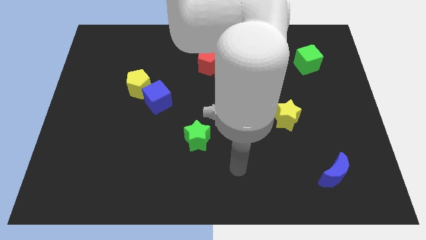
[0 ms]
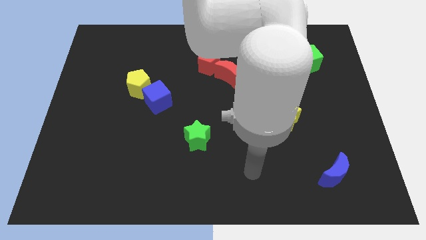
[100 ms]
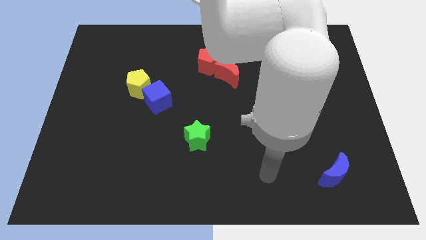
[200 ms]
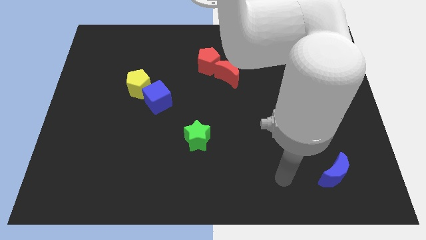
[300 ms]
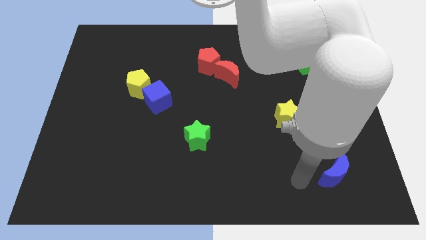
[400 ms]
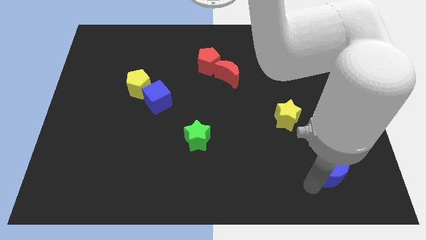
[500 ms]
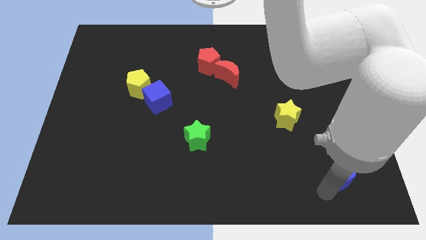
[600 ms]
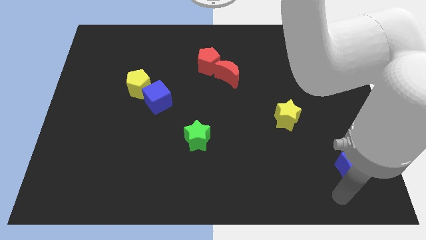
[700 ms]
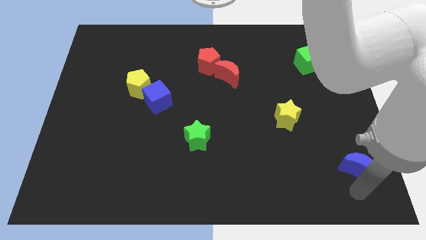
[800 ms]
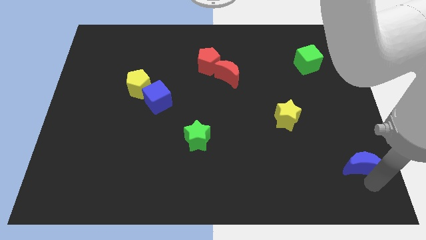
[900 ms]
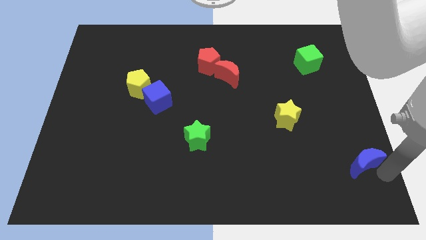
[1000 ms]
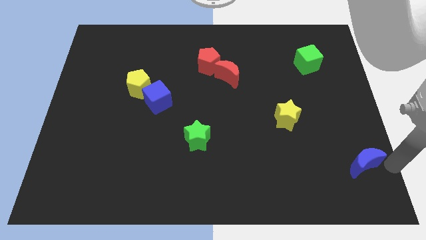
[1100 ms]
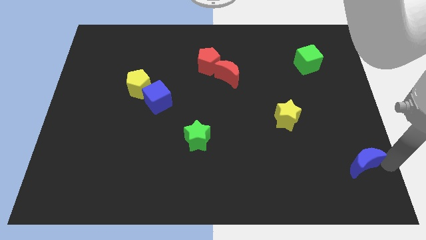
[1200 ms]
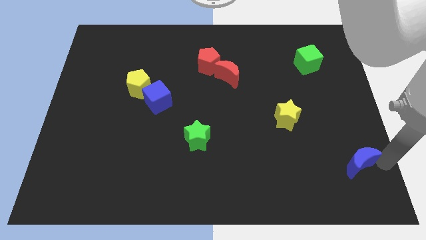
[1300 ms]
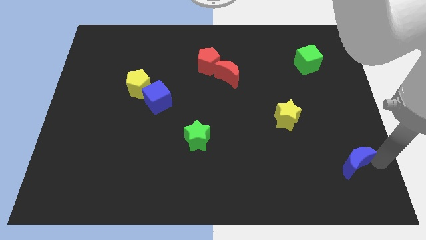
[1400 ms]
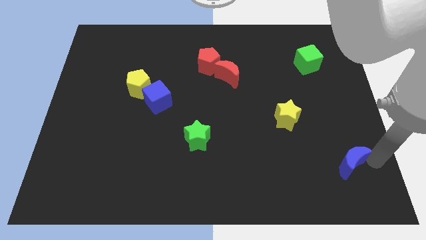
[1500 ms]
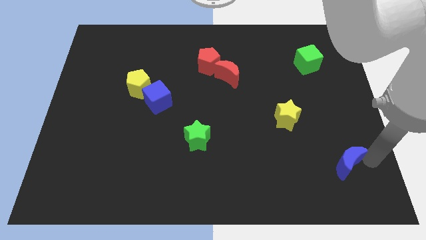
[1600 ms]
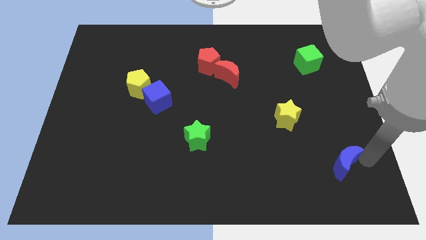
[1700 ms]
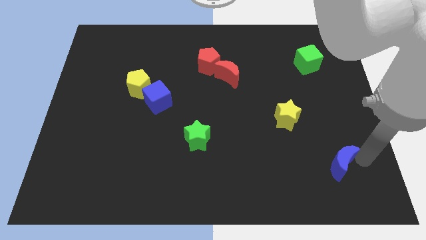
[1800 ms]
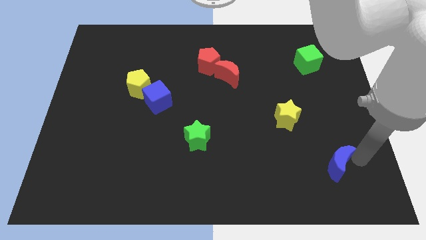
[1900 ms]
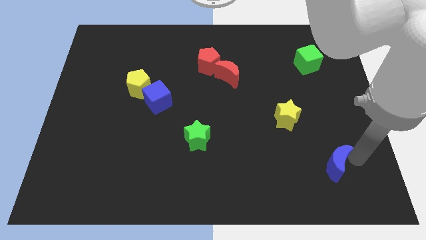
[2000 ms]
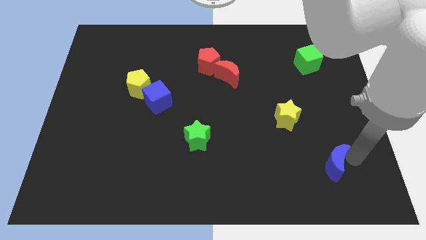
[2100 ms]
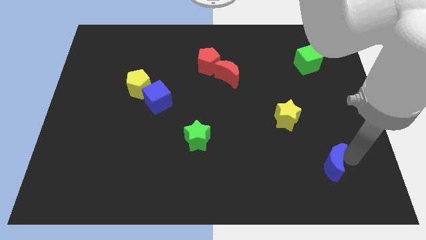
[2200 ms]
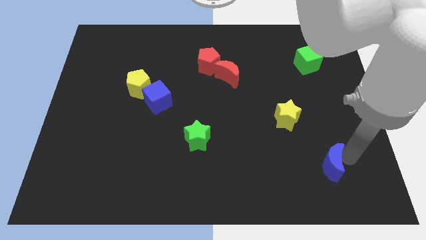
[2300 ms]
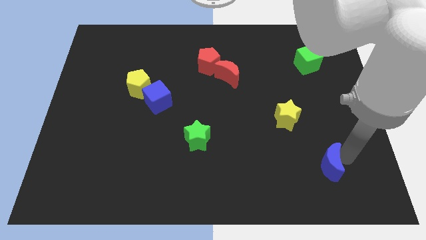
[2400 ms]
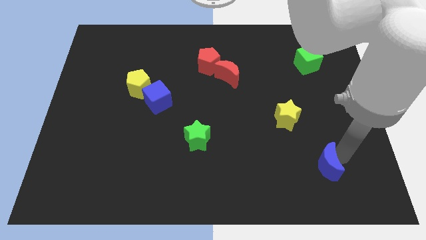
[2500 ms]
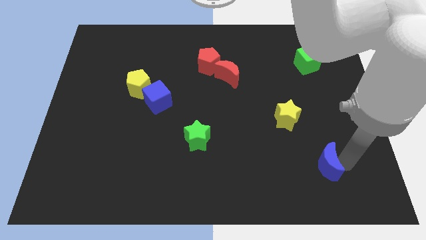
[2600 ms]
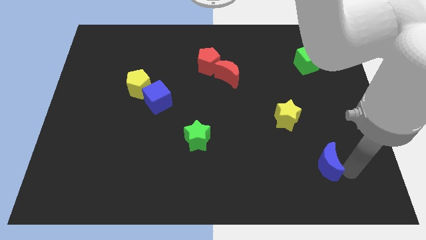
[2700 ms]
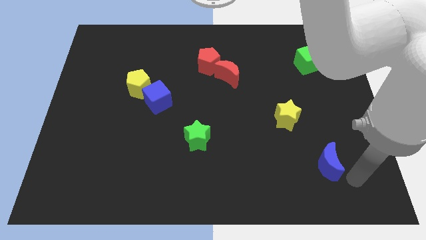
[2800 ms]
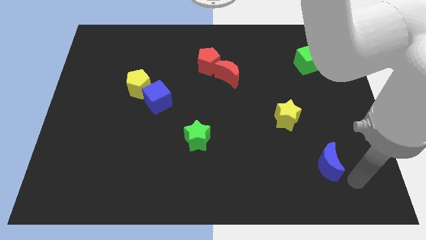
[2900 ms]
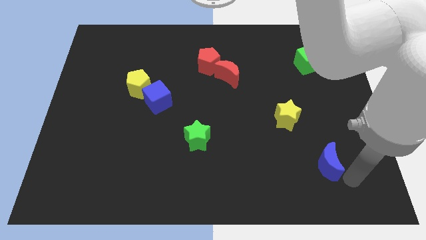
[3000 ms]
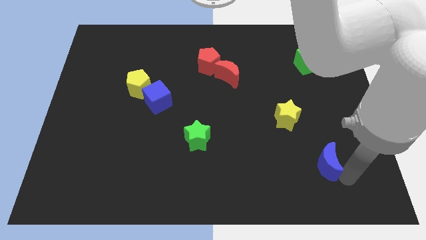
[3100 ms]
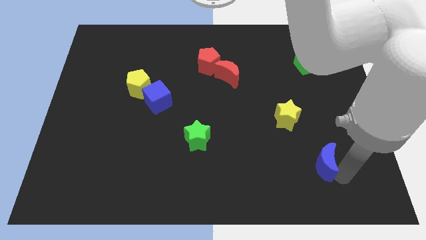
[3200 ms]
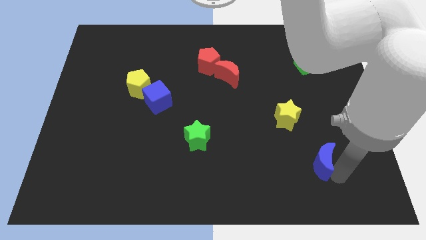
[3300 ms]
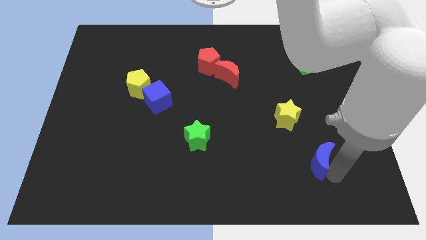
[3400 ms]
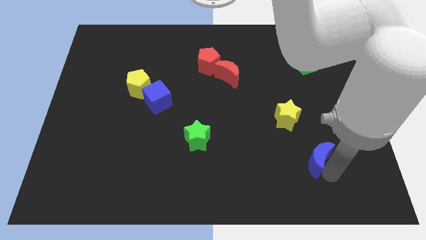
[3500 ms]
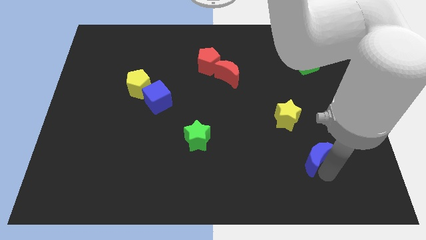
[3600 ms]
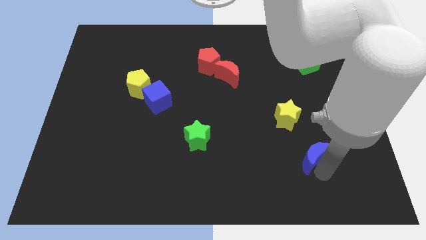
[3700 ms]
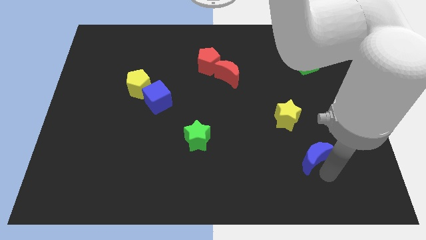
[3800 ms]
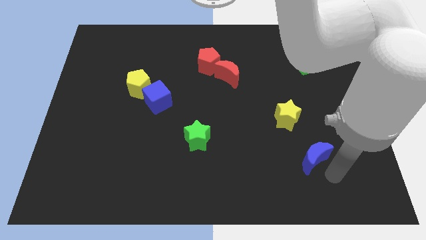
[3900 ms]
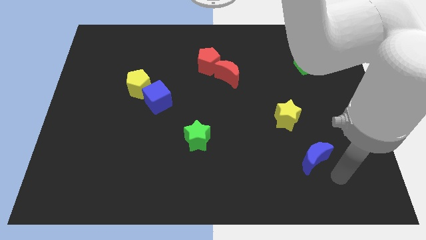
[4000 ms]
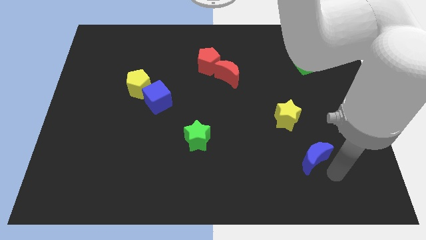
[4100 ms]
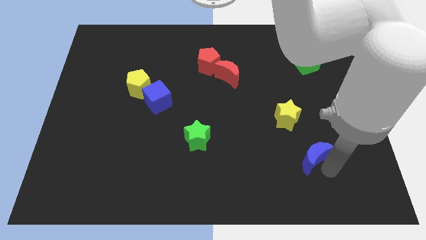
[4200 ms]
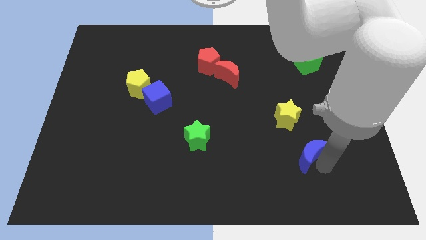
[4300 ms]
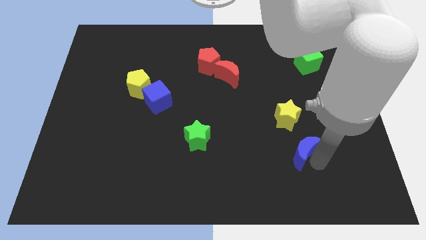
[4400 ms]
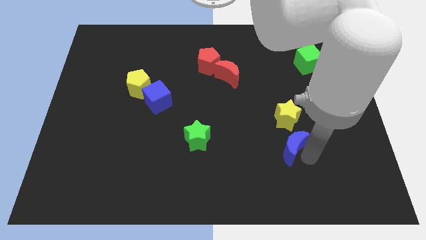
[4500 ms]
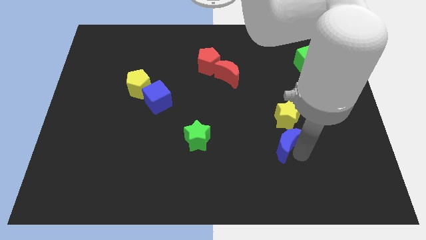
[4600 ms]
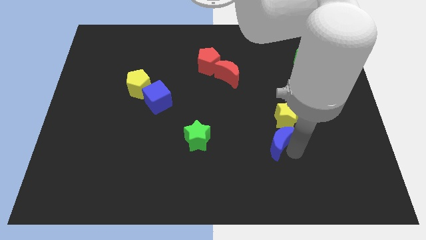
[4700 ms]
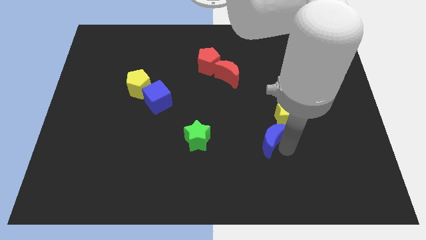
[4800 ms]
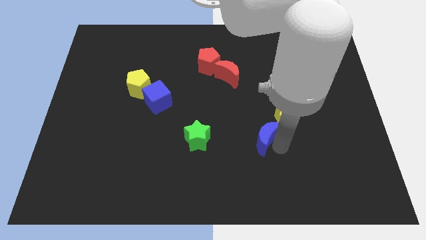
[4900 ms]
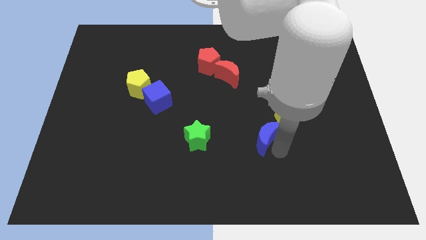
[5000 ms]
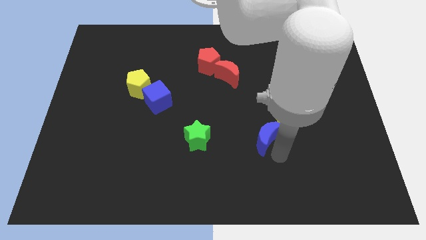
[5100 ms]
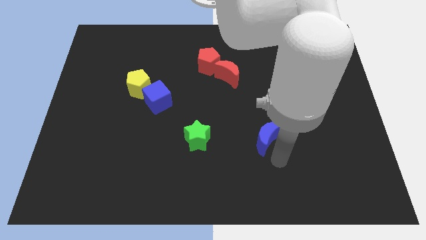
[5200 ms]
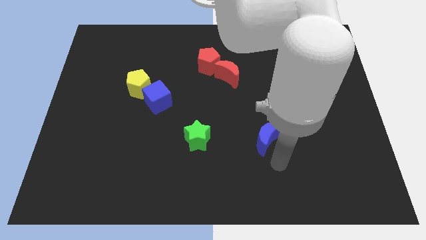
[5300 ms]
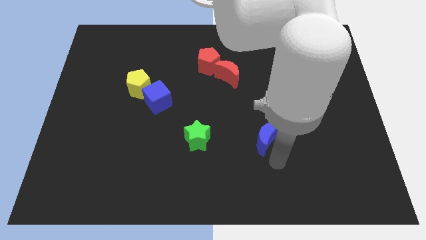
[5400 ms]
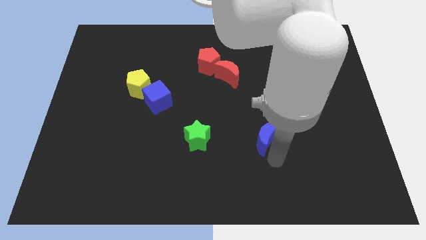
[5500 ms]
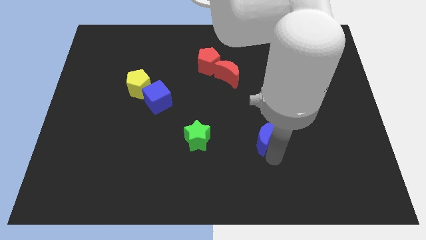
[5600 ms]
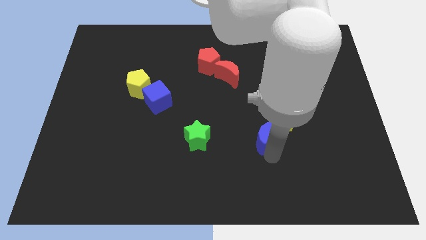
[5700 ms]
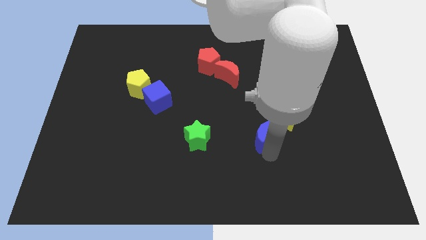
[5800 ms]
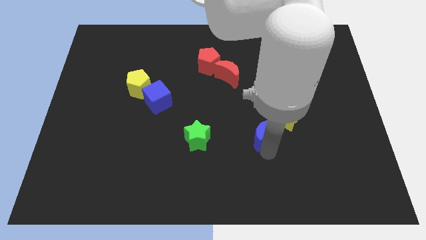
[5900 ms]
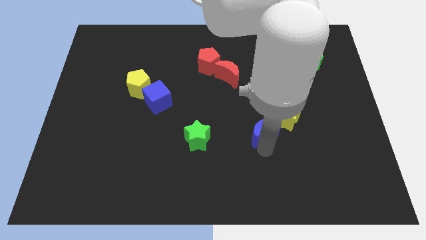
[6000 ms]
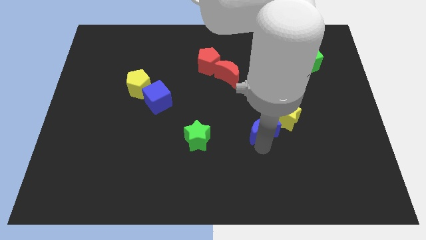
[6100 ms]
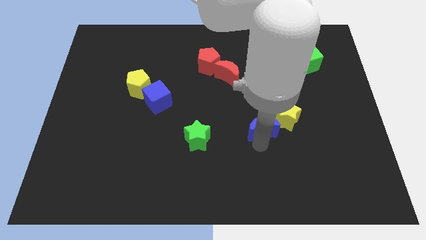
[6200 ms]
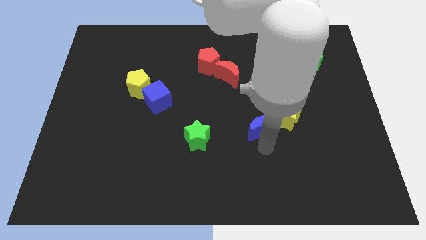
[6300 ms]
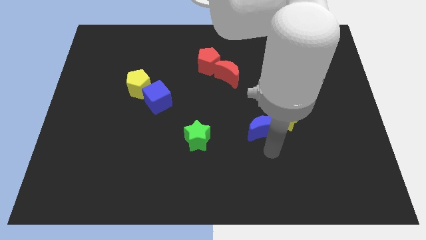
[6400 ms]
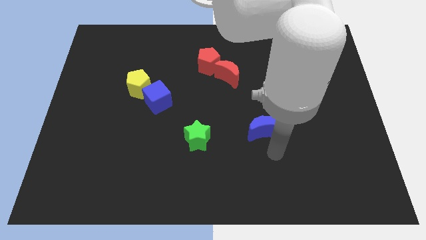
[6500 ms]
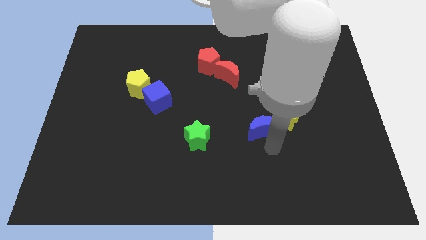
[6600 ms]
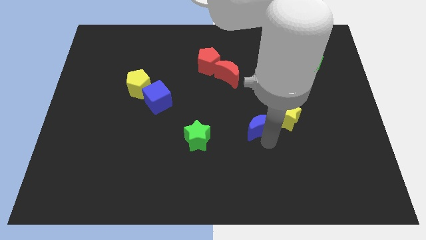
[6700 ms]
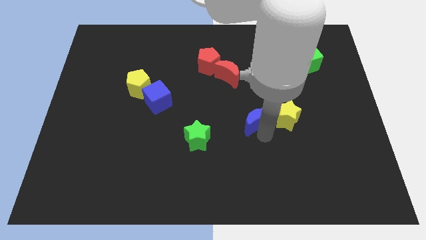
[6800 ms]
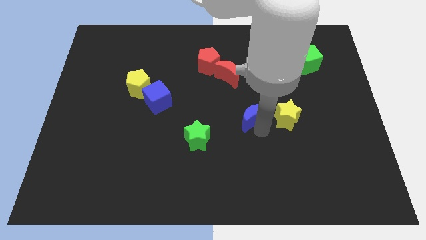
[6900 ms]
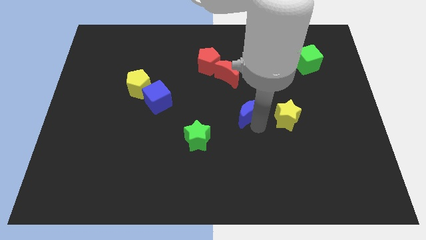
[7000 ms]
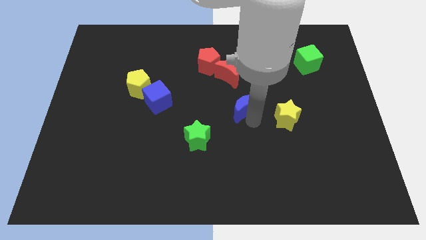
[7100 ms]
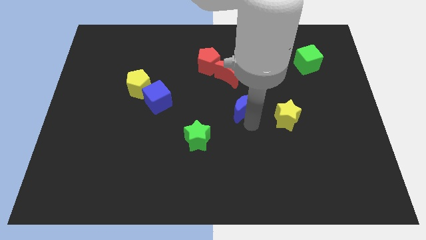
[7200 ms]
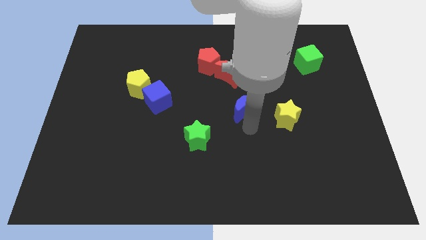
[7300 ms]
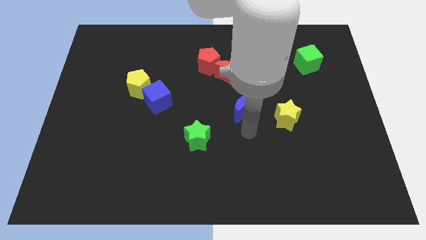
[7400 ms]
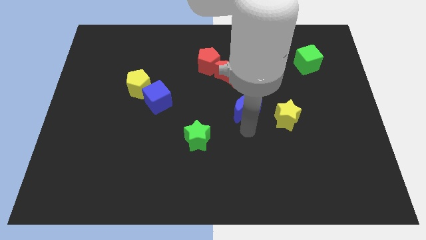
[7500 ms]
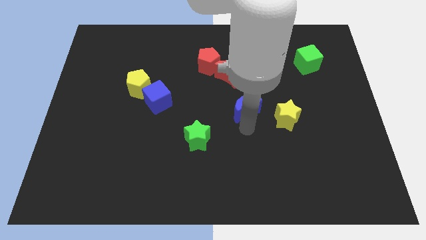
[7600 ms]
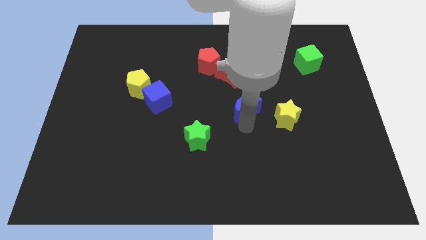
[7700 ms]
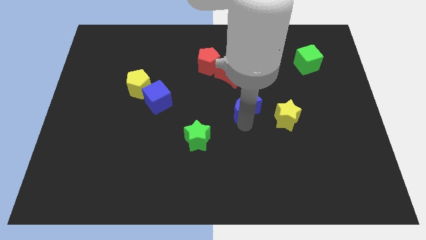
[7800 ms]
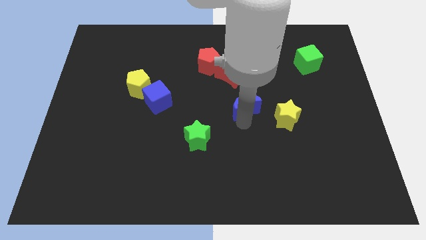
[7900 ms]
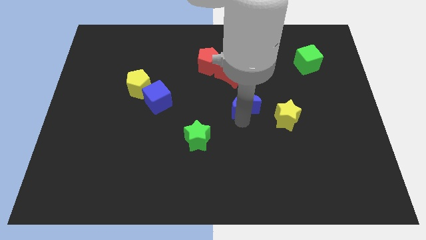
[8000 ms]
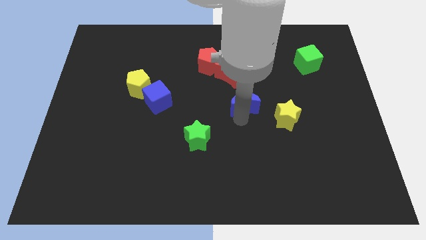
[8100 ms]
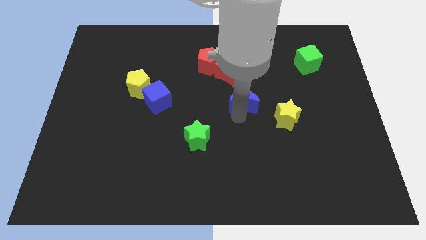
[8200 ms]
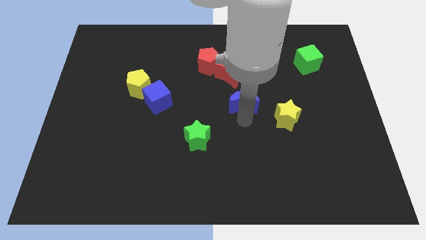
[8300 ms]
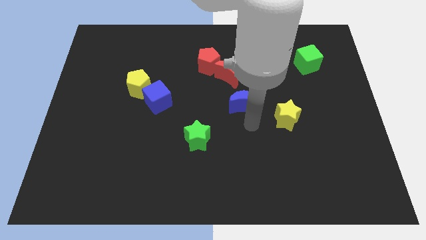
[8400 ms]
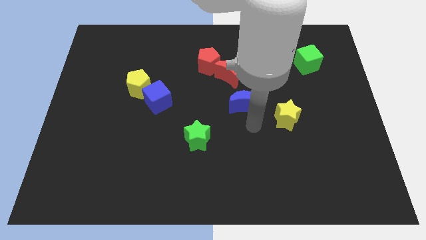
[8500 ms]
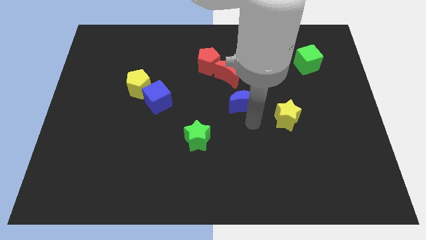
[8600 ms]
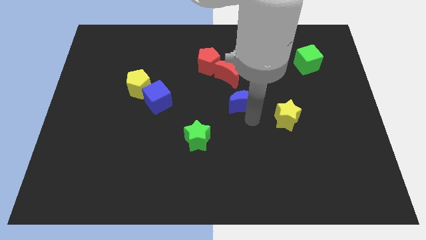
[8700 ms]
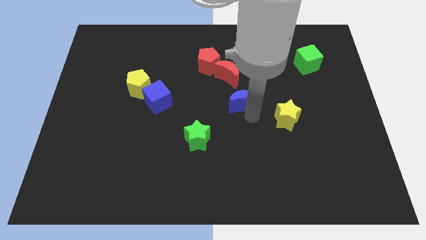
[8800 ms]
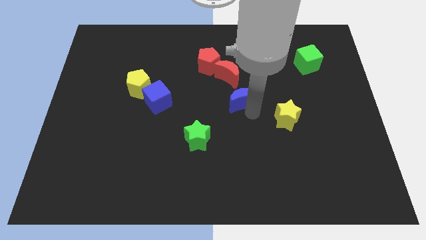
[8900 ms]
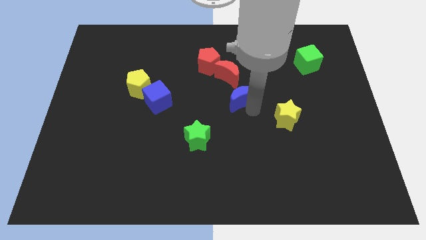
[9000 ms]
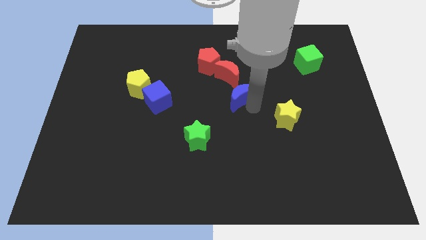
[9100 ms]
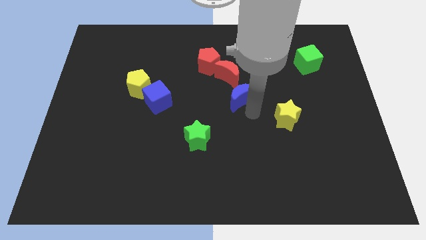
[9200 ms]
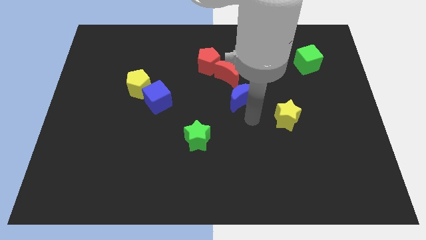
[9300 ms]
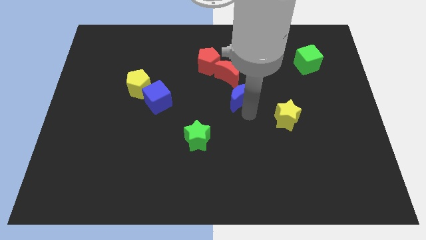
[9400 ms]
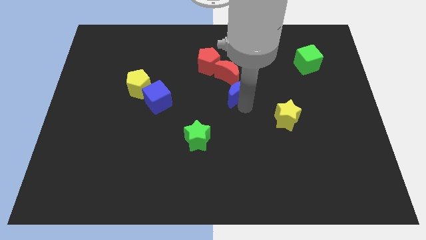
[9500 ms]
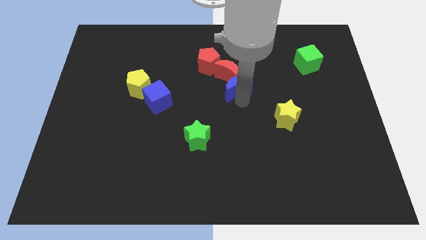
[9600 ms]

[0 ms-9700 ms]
slide the blue moon towards the red moon
